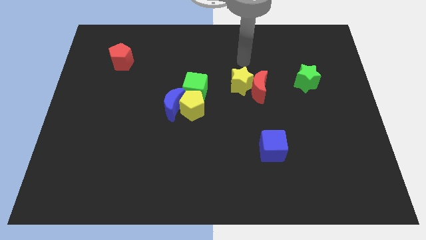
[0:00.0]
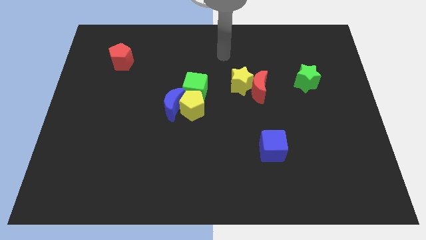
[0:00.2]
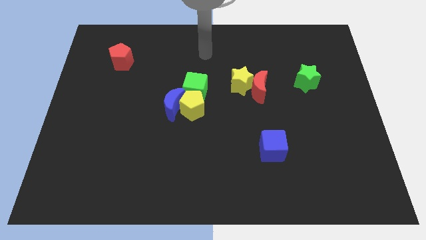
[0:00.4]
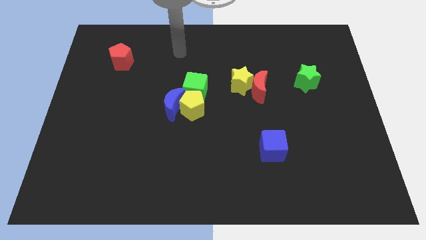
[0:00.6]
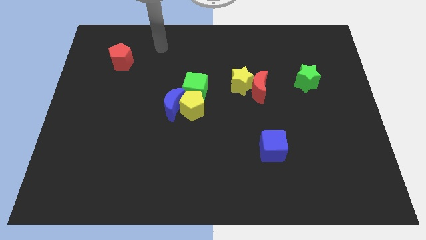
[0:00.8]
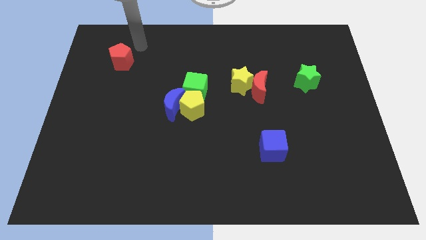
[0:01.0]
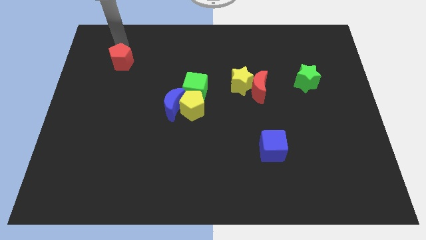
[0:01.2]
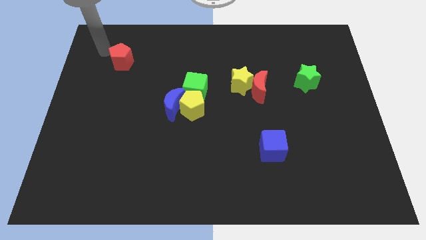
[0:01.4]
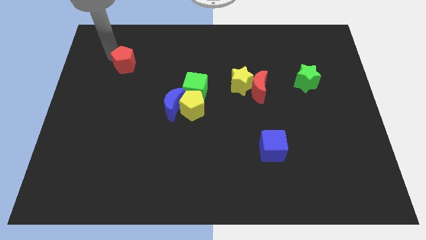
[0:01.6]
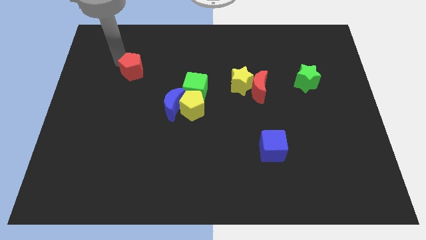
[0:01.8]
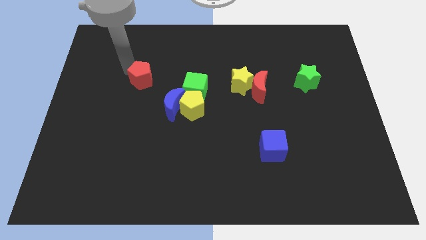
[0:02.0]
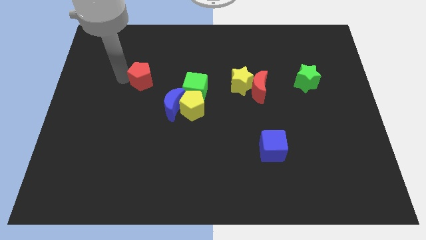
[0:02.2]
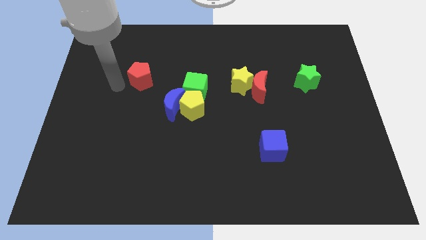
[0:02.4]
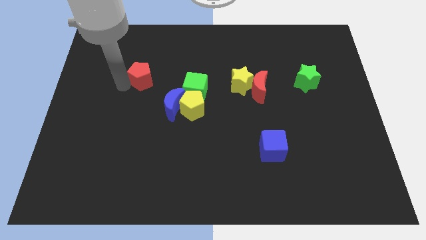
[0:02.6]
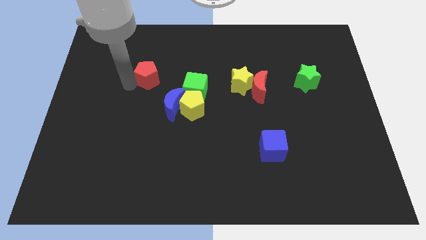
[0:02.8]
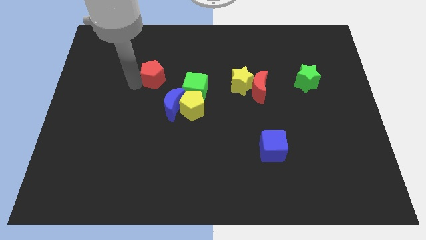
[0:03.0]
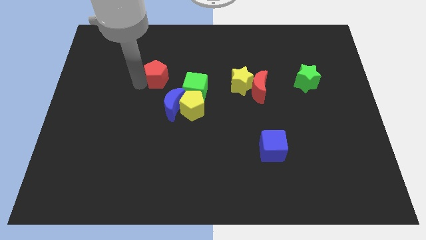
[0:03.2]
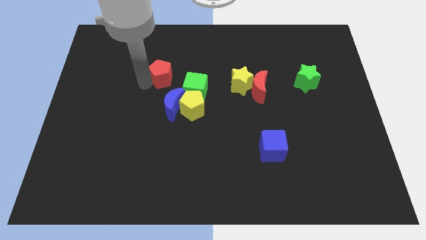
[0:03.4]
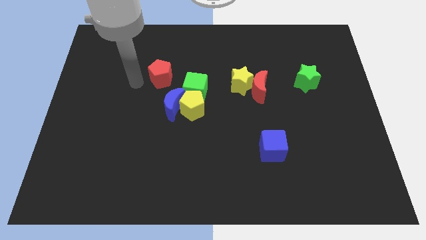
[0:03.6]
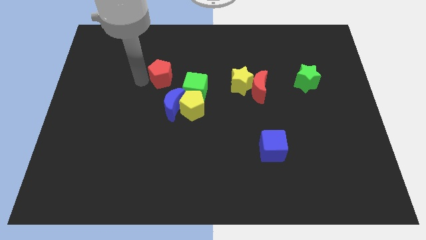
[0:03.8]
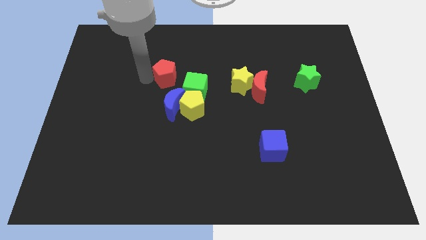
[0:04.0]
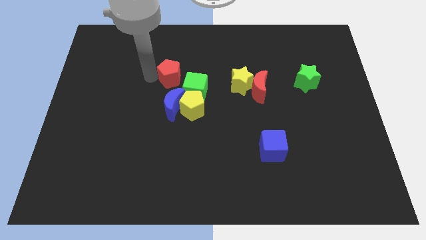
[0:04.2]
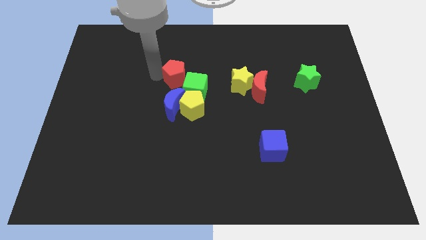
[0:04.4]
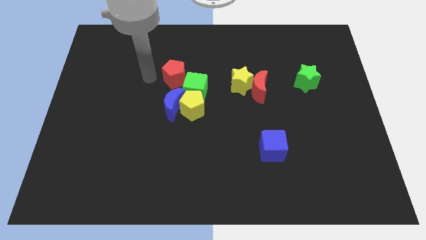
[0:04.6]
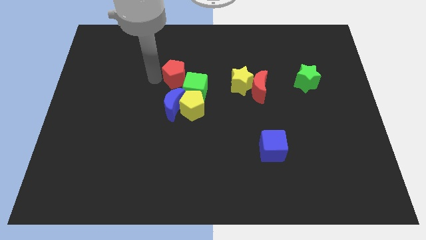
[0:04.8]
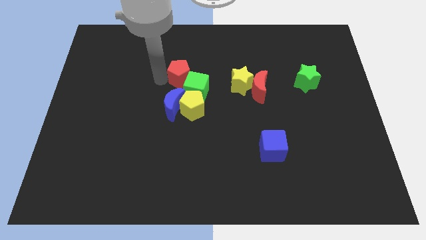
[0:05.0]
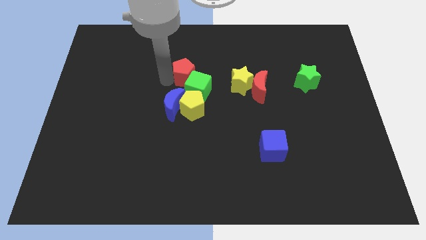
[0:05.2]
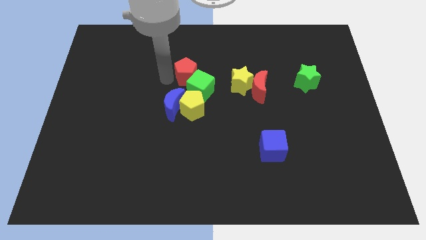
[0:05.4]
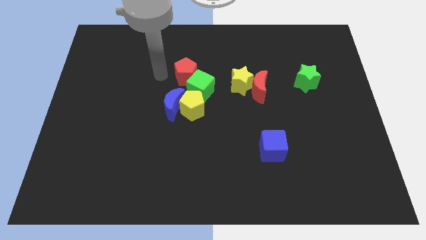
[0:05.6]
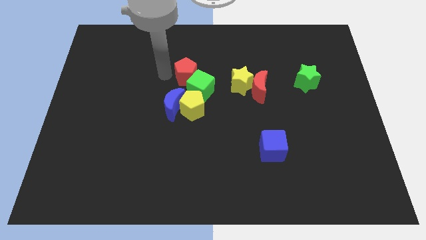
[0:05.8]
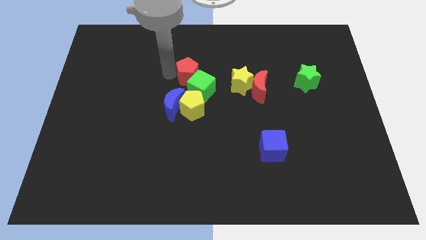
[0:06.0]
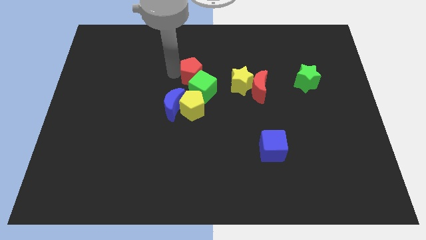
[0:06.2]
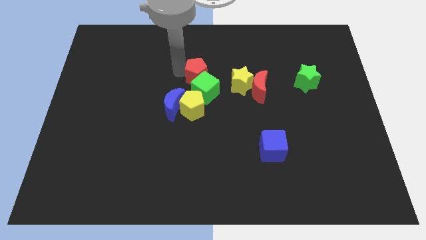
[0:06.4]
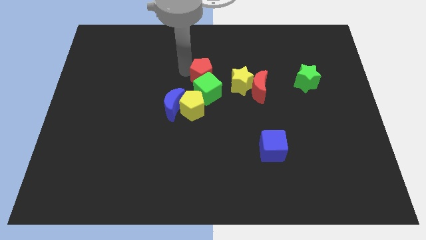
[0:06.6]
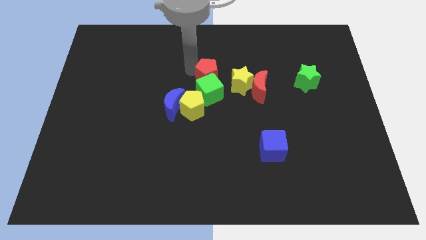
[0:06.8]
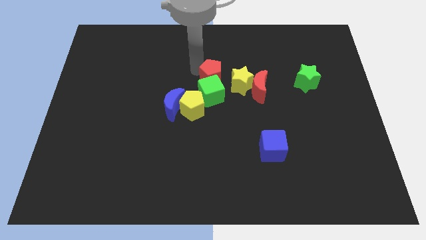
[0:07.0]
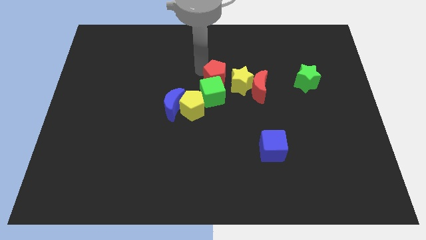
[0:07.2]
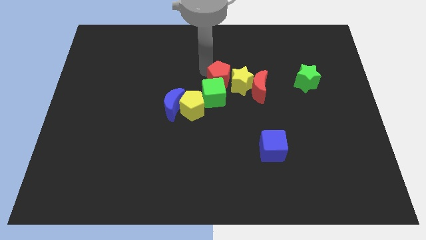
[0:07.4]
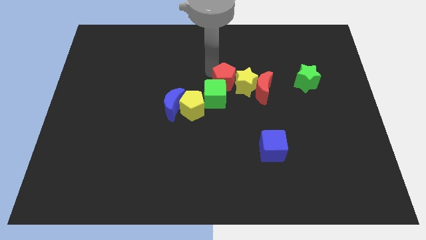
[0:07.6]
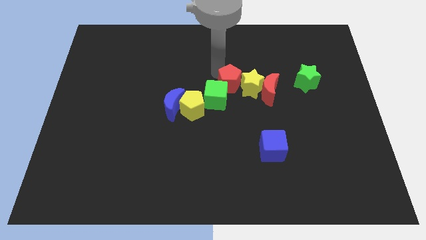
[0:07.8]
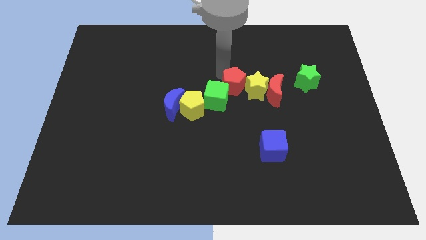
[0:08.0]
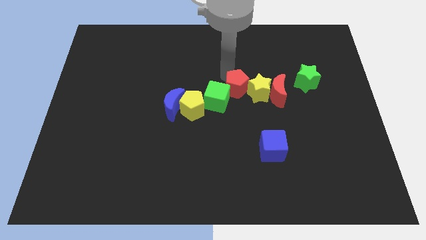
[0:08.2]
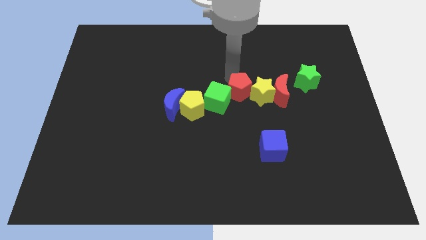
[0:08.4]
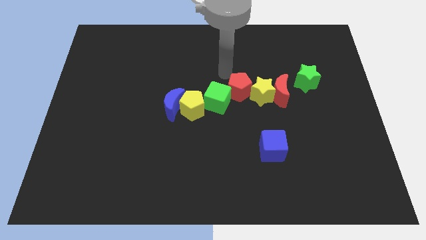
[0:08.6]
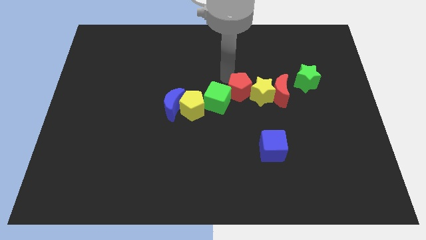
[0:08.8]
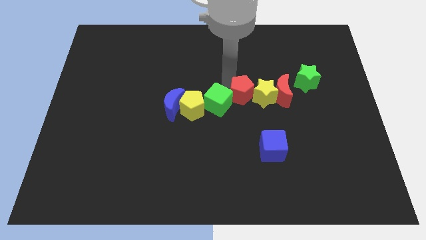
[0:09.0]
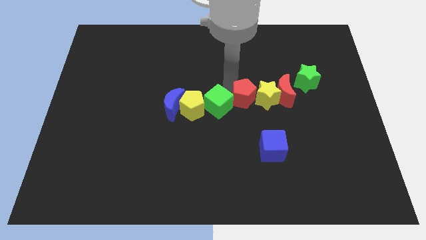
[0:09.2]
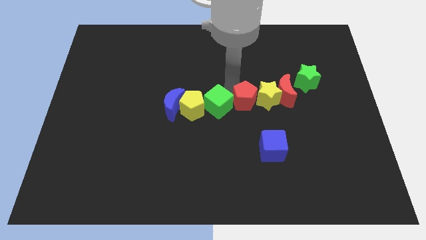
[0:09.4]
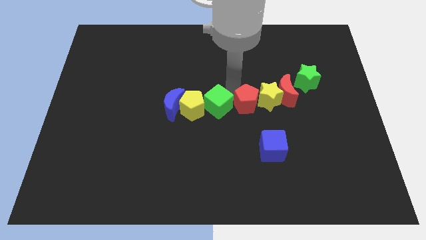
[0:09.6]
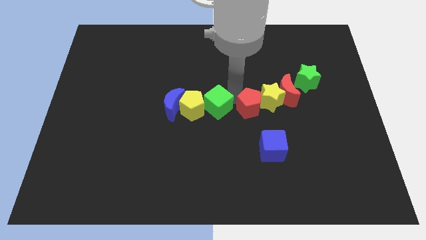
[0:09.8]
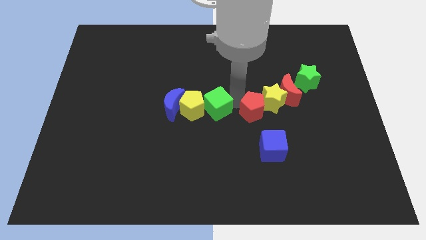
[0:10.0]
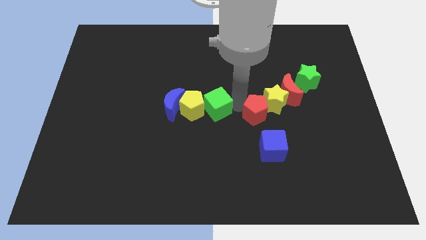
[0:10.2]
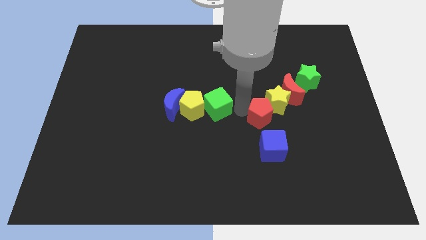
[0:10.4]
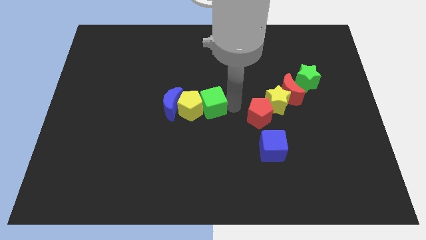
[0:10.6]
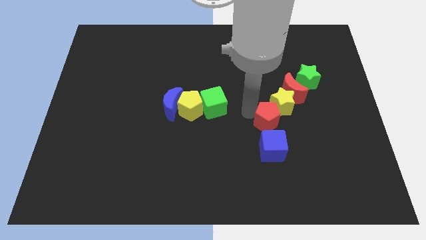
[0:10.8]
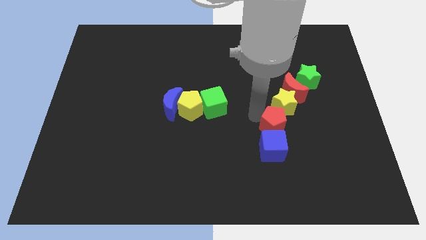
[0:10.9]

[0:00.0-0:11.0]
put the red pentagon diagonally up and to the right of the blue cube

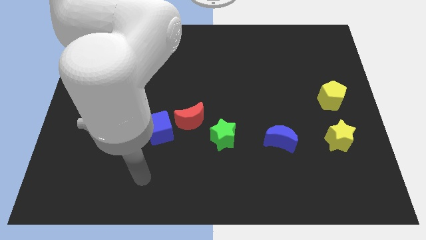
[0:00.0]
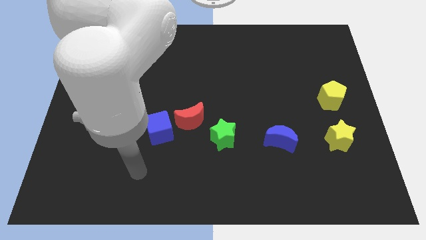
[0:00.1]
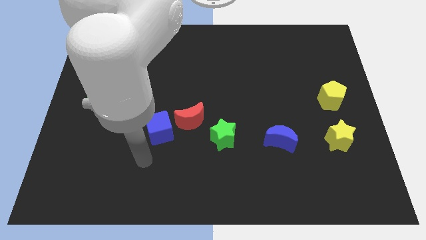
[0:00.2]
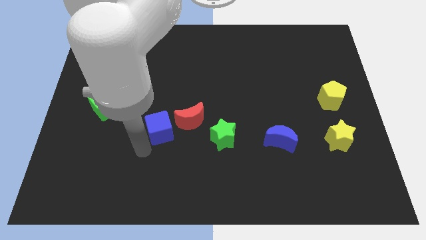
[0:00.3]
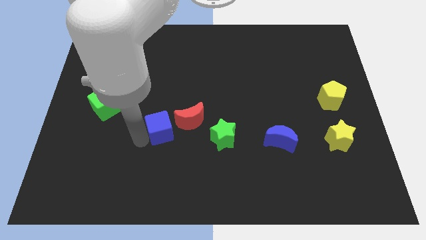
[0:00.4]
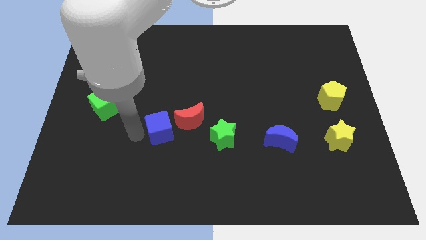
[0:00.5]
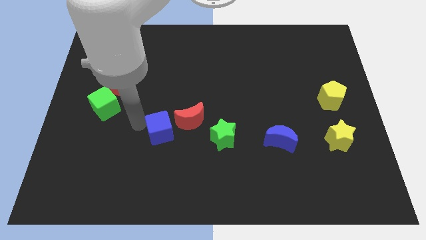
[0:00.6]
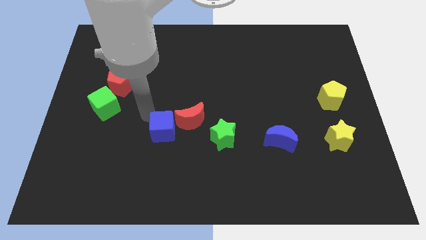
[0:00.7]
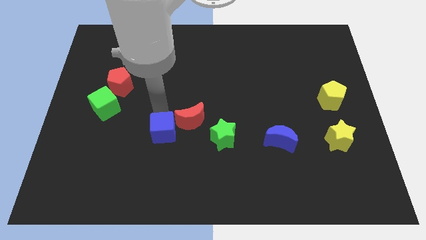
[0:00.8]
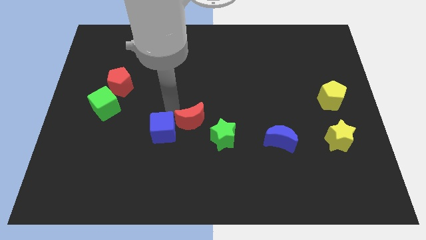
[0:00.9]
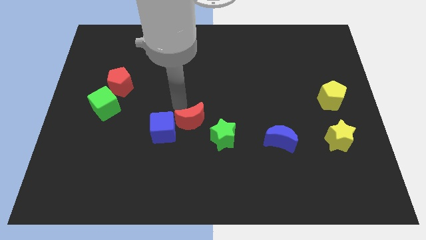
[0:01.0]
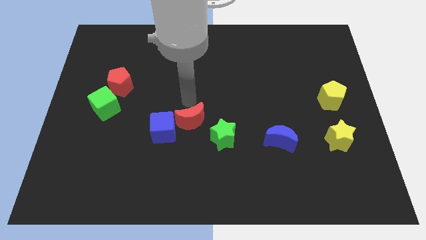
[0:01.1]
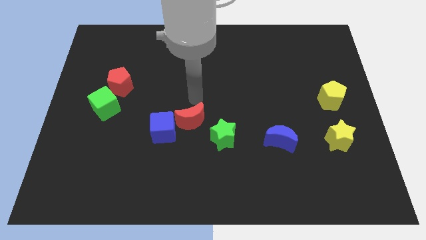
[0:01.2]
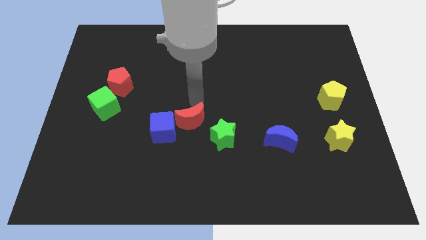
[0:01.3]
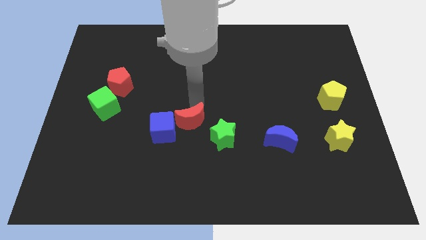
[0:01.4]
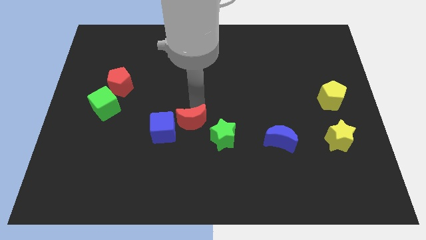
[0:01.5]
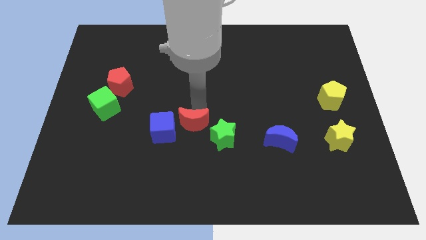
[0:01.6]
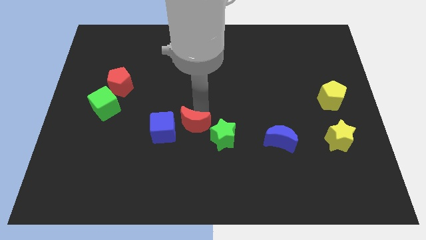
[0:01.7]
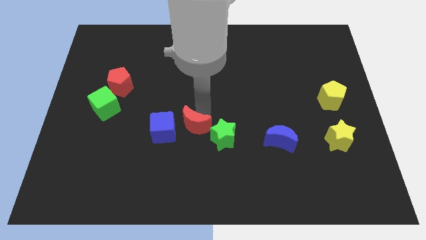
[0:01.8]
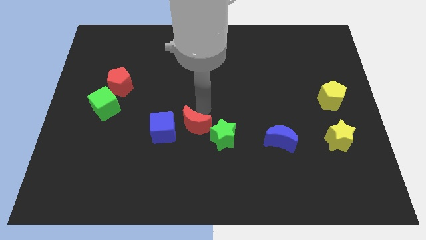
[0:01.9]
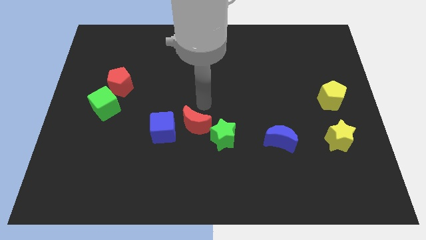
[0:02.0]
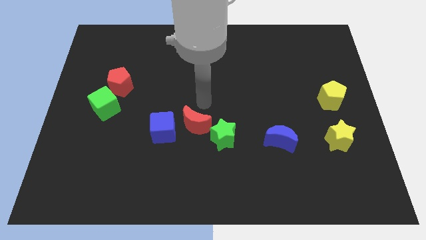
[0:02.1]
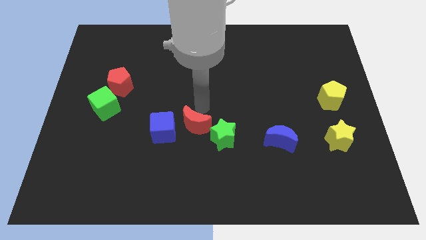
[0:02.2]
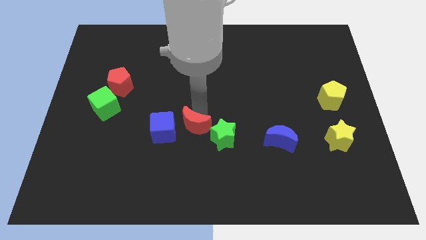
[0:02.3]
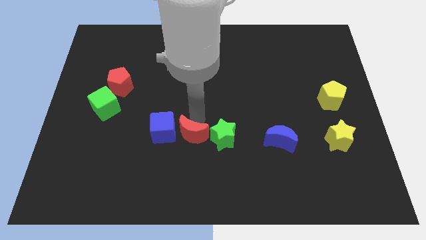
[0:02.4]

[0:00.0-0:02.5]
slide the red moon to the bottom right of the blue cube
